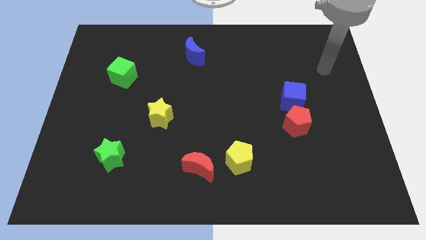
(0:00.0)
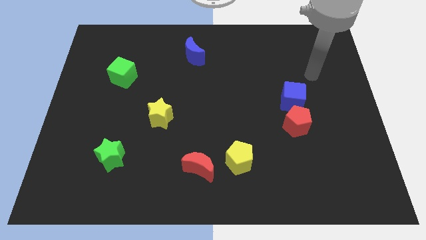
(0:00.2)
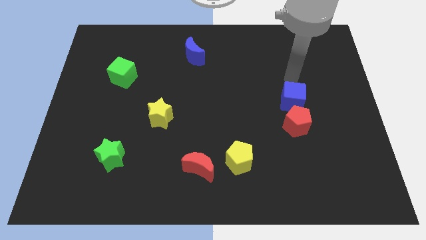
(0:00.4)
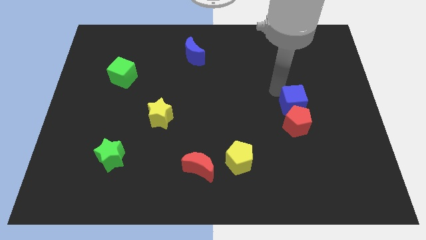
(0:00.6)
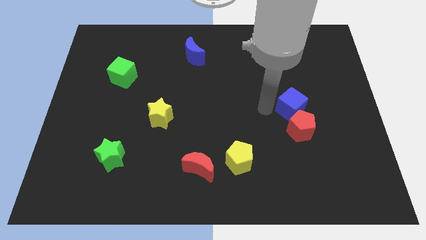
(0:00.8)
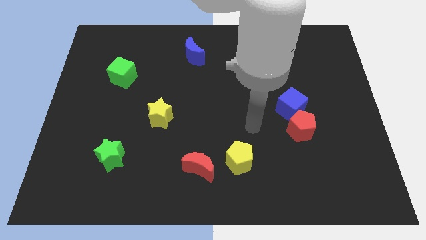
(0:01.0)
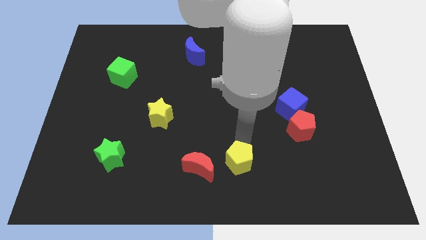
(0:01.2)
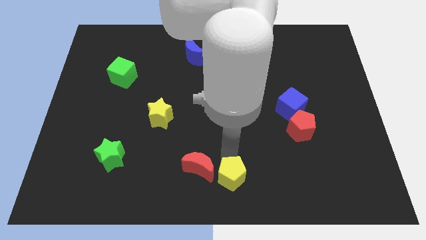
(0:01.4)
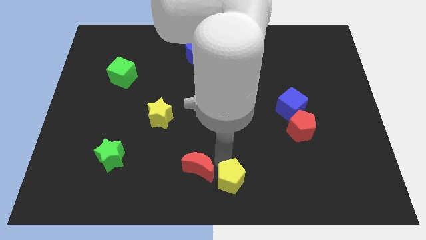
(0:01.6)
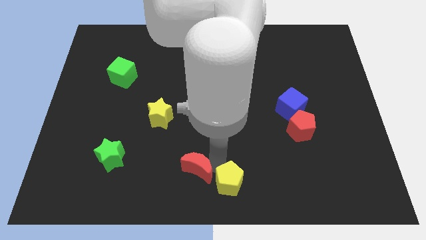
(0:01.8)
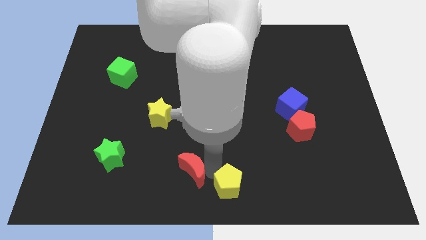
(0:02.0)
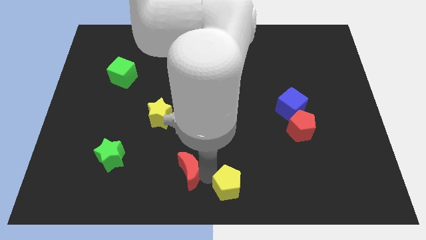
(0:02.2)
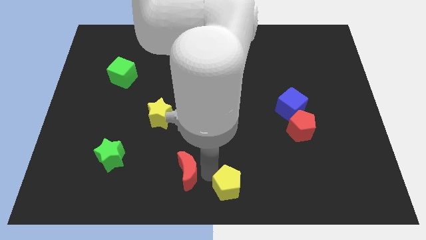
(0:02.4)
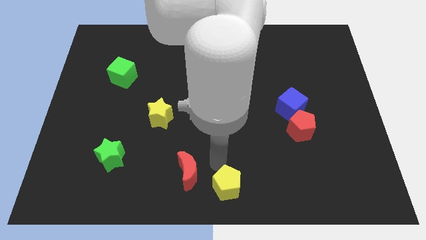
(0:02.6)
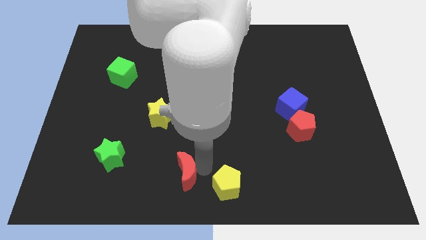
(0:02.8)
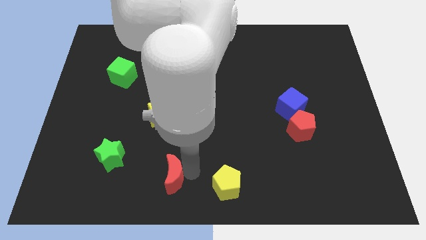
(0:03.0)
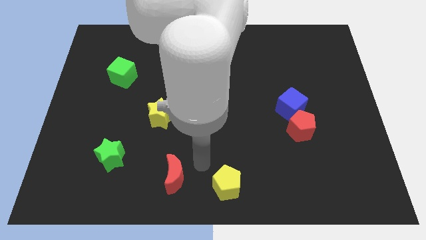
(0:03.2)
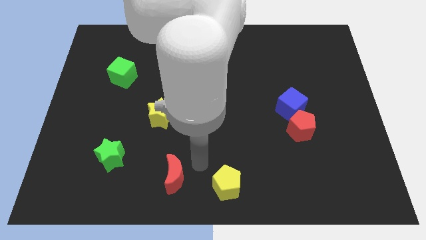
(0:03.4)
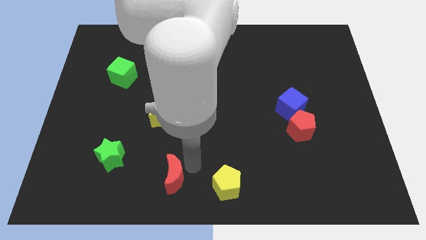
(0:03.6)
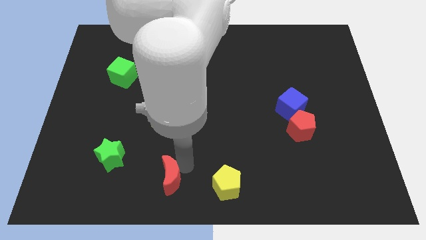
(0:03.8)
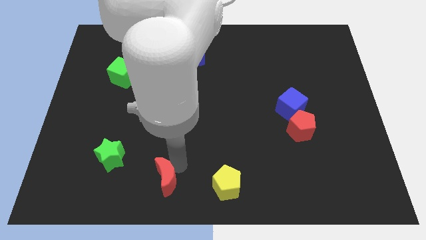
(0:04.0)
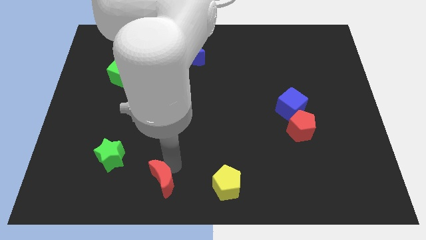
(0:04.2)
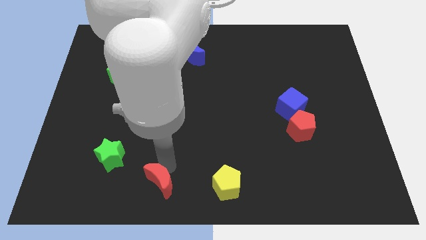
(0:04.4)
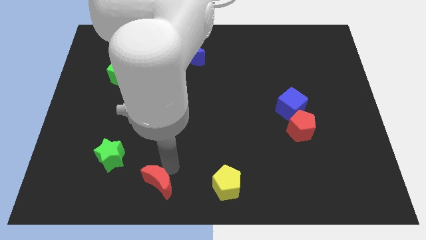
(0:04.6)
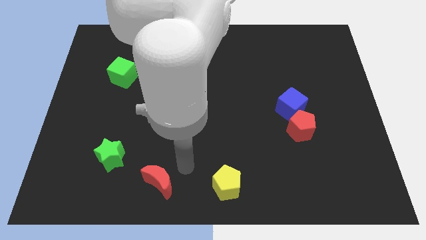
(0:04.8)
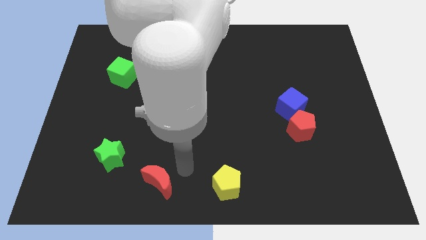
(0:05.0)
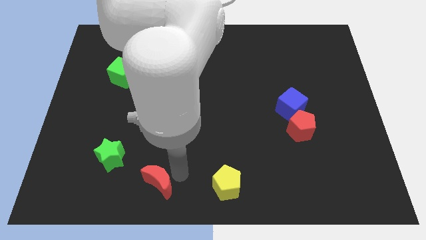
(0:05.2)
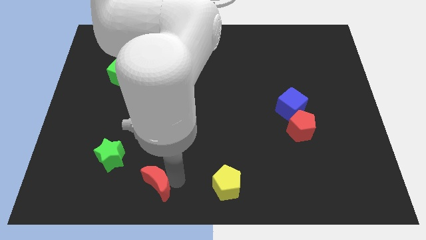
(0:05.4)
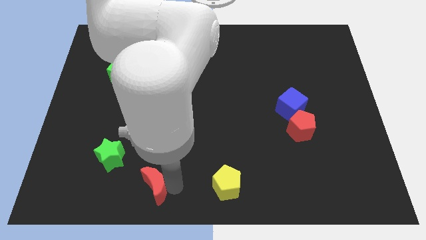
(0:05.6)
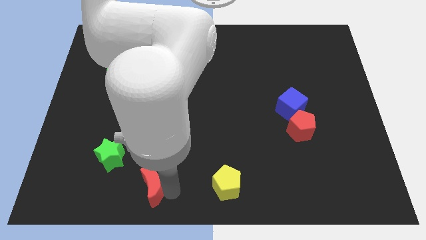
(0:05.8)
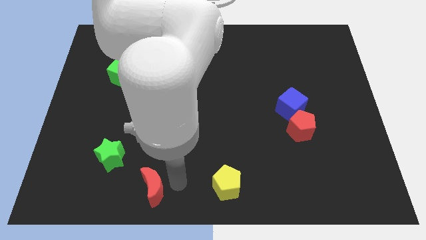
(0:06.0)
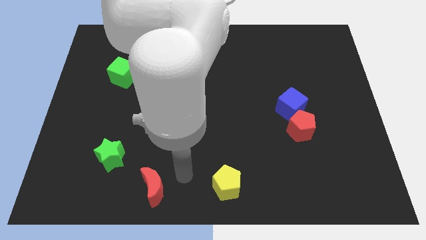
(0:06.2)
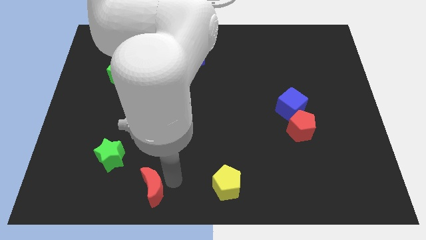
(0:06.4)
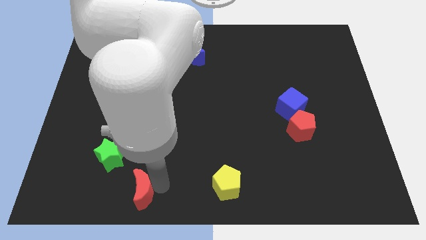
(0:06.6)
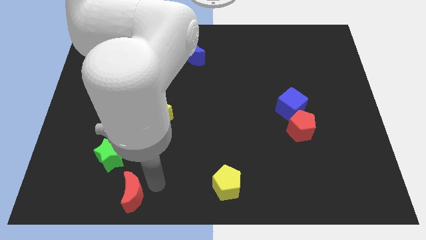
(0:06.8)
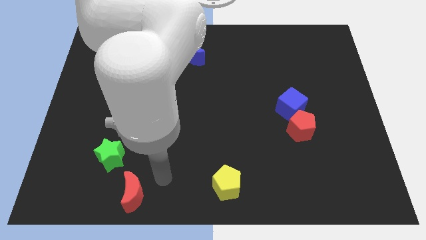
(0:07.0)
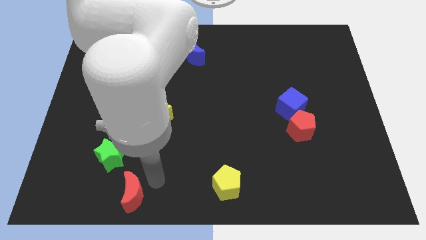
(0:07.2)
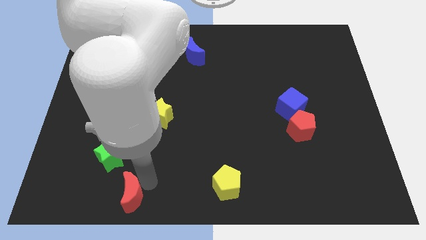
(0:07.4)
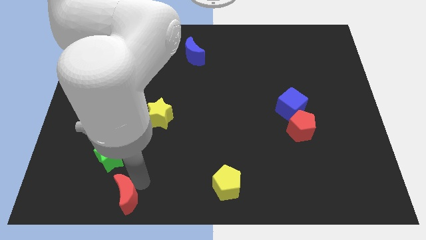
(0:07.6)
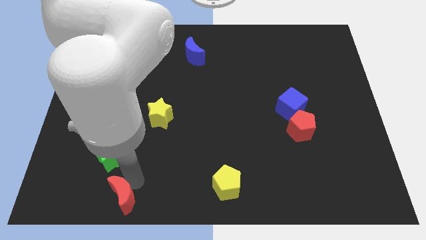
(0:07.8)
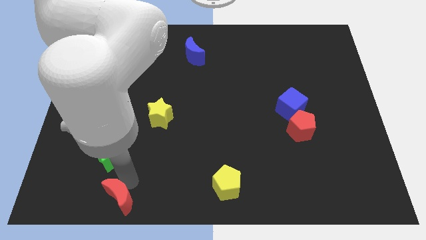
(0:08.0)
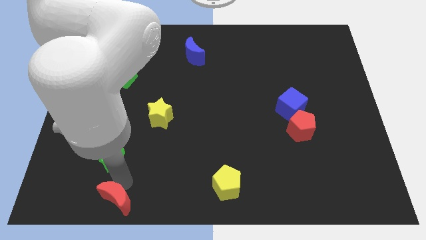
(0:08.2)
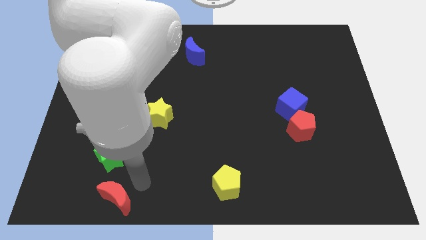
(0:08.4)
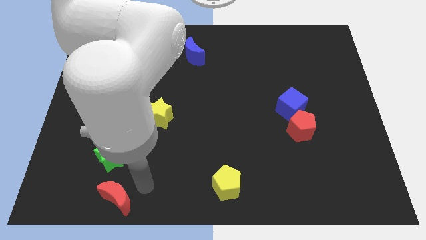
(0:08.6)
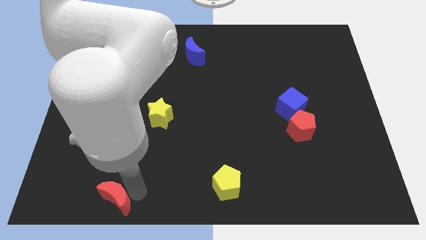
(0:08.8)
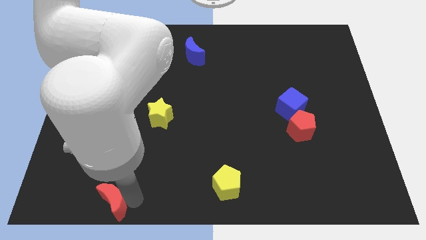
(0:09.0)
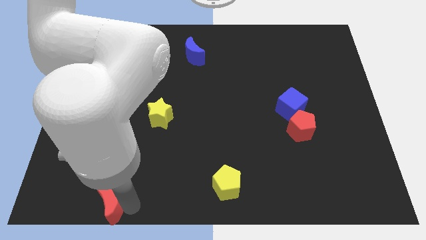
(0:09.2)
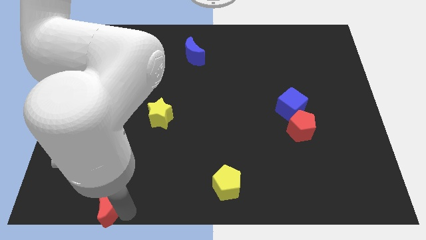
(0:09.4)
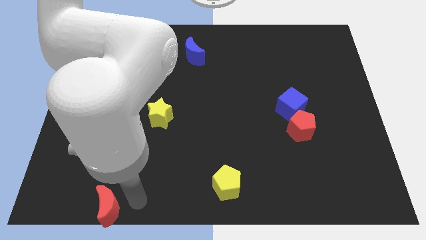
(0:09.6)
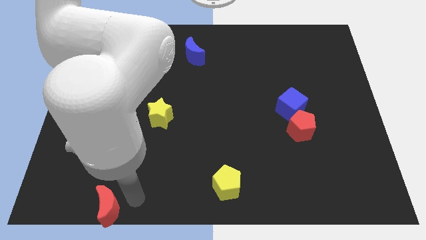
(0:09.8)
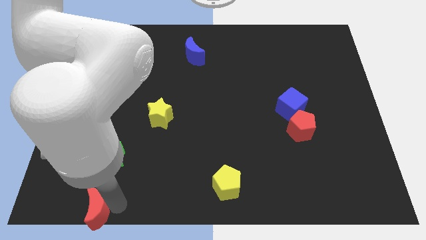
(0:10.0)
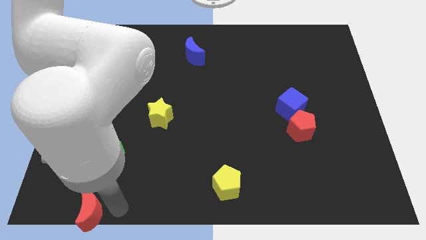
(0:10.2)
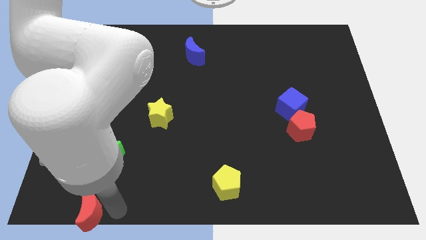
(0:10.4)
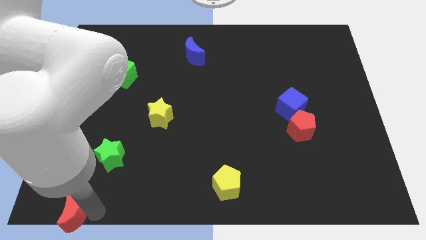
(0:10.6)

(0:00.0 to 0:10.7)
move the red moon to the bottom left corner

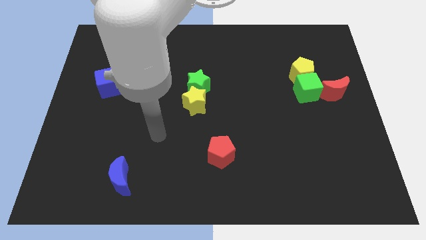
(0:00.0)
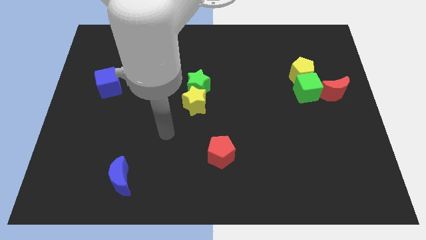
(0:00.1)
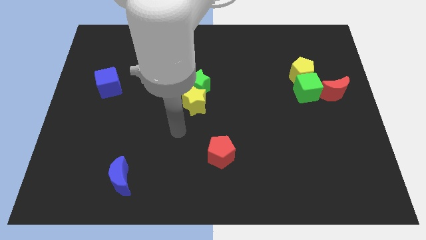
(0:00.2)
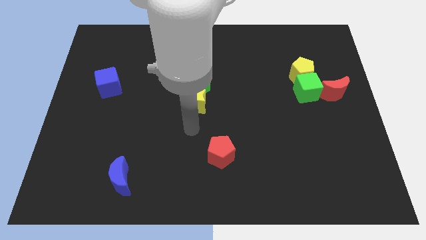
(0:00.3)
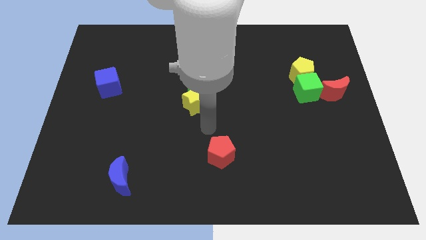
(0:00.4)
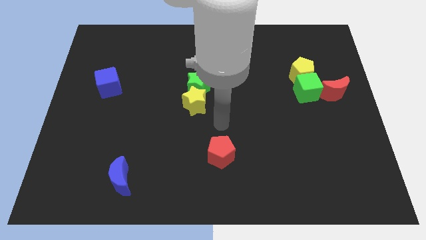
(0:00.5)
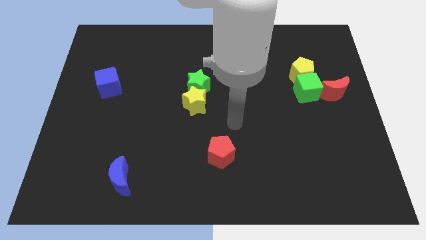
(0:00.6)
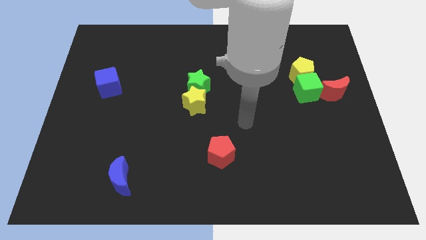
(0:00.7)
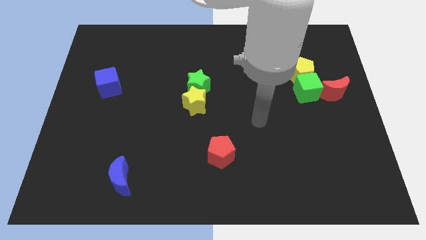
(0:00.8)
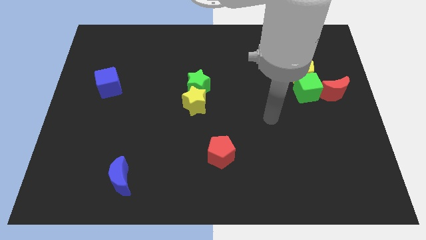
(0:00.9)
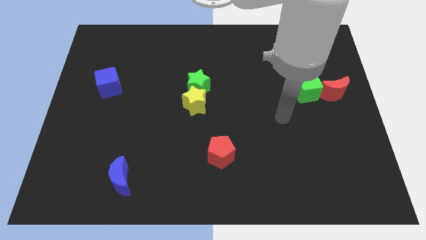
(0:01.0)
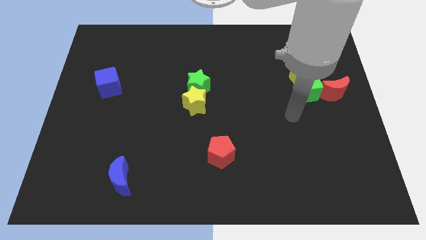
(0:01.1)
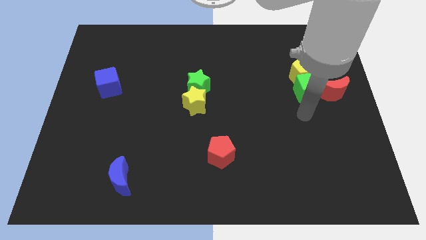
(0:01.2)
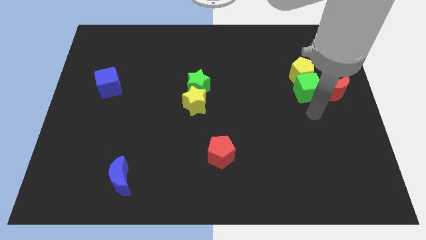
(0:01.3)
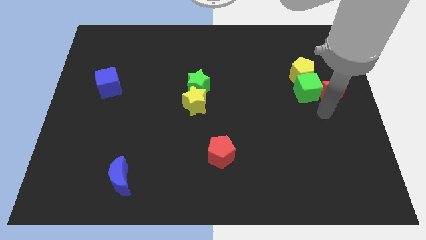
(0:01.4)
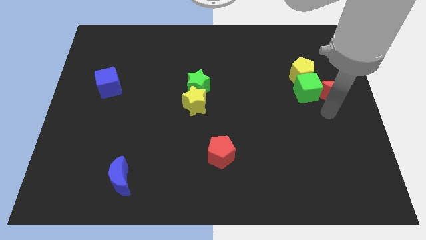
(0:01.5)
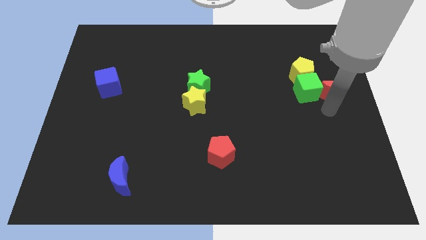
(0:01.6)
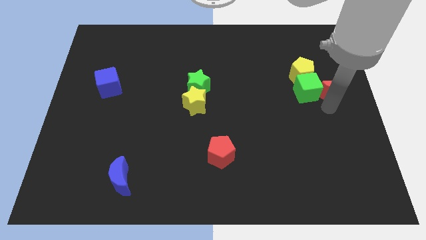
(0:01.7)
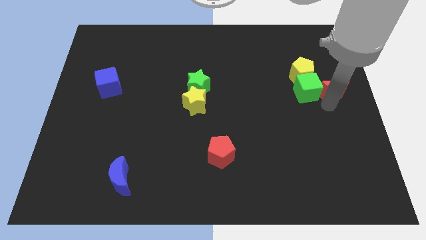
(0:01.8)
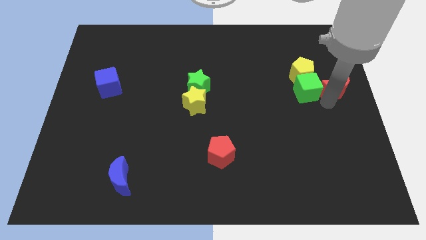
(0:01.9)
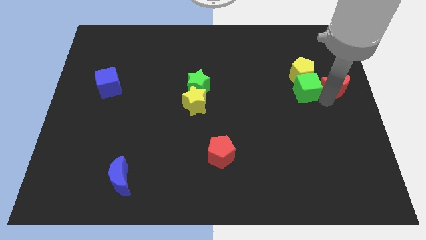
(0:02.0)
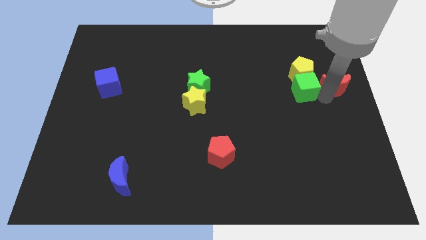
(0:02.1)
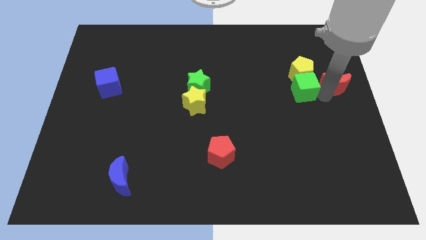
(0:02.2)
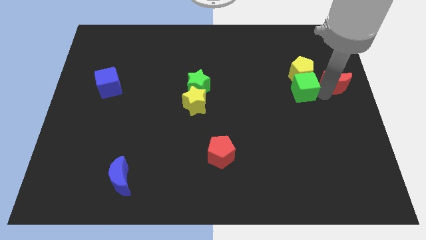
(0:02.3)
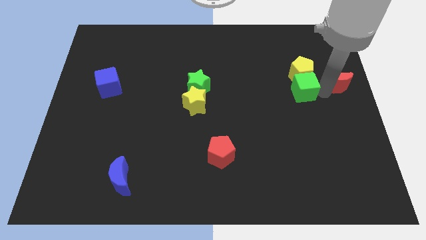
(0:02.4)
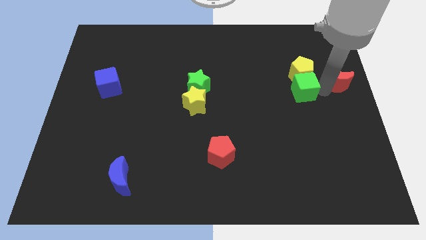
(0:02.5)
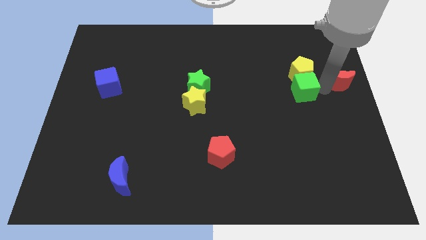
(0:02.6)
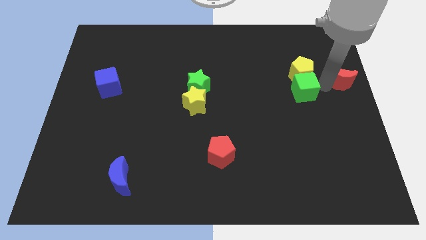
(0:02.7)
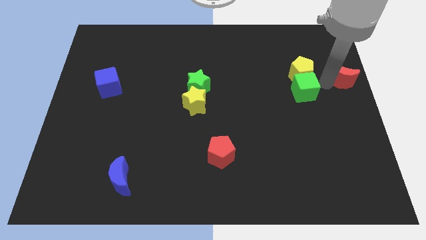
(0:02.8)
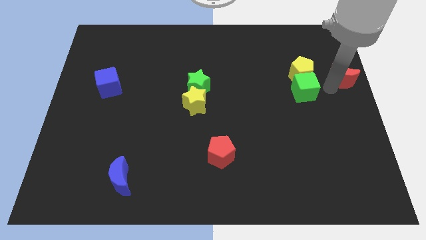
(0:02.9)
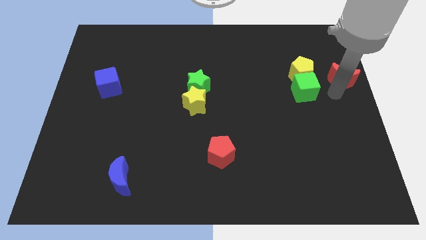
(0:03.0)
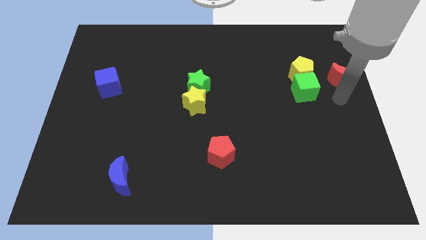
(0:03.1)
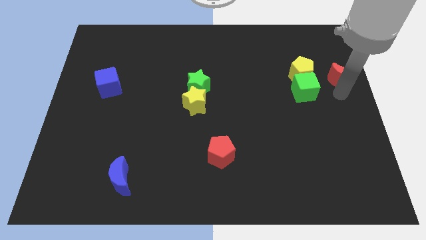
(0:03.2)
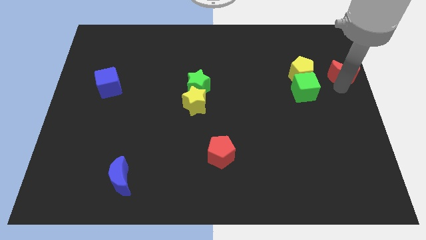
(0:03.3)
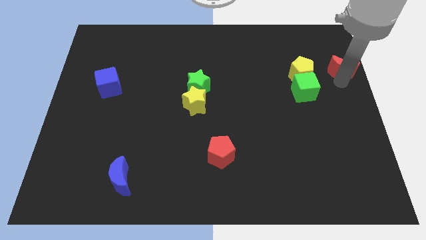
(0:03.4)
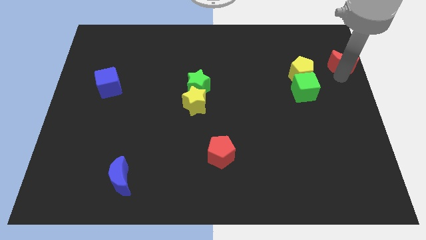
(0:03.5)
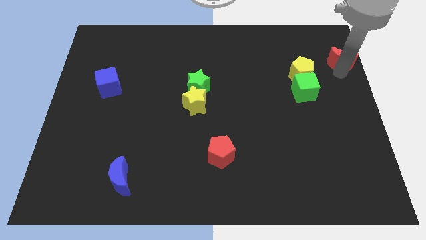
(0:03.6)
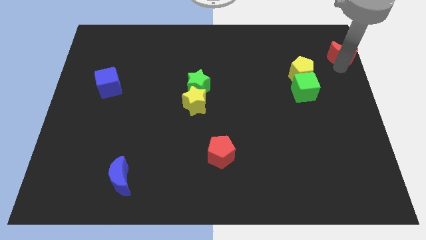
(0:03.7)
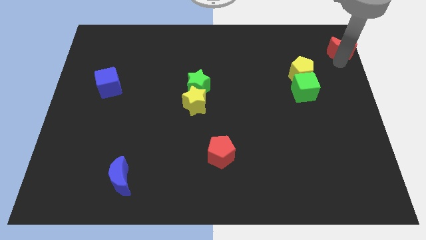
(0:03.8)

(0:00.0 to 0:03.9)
put the red moon to the top right
